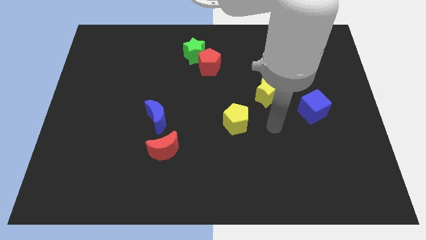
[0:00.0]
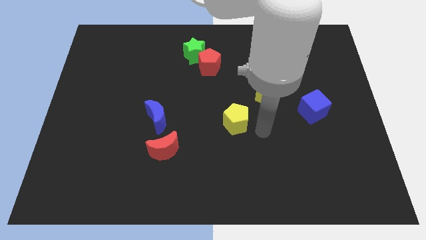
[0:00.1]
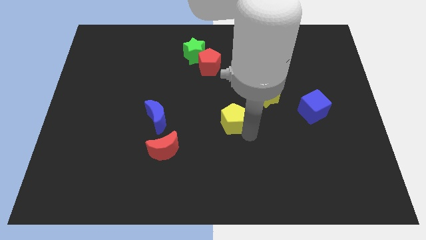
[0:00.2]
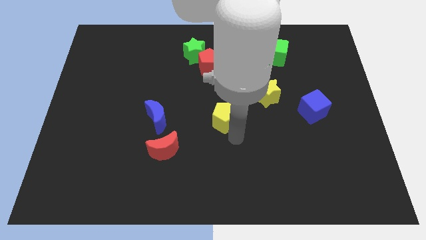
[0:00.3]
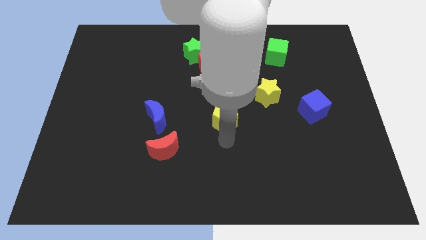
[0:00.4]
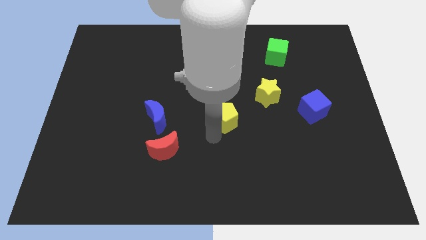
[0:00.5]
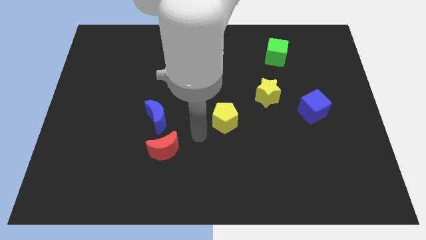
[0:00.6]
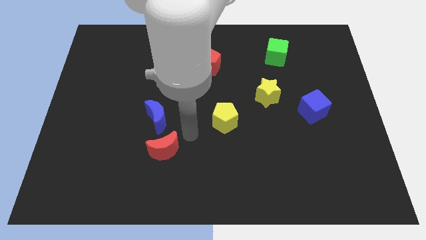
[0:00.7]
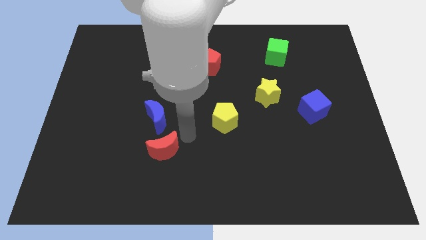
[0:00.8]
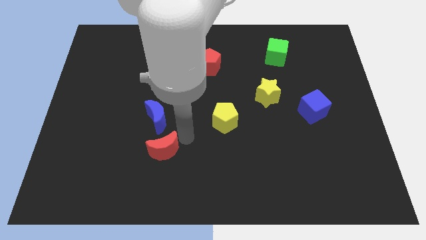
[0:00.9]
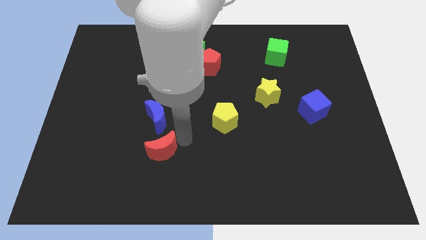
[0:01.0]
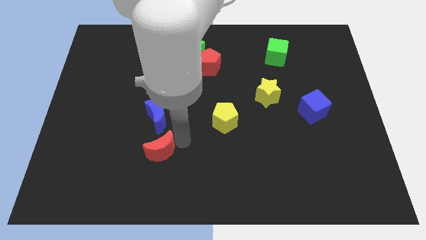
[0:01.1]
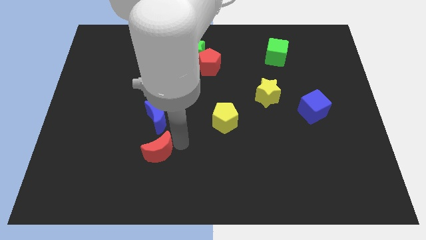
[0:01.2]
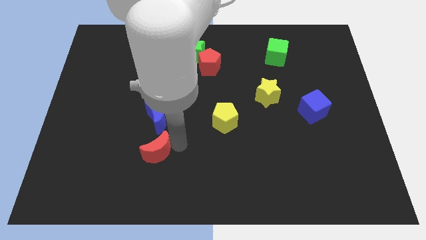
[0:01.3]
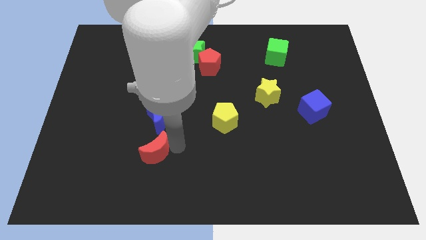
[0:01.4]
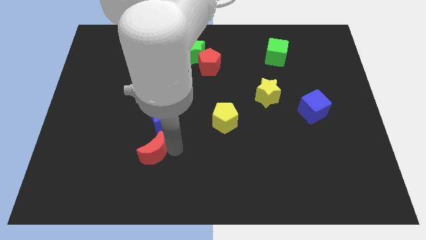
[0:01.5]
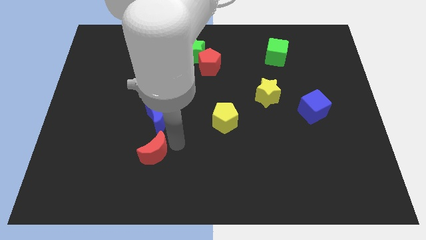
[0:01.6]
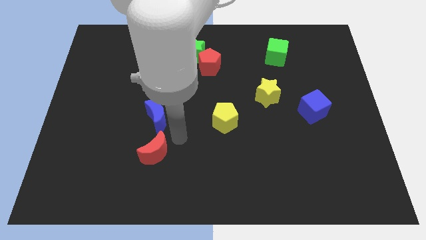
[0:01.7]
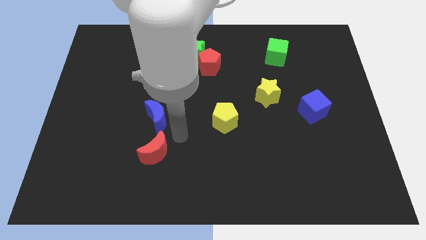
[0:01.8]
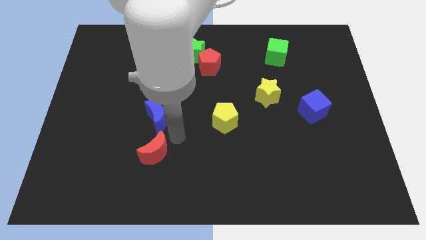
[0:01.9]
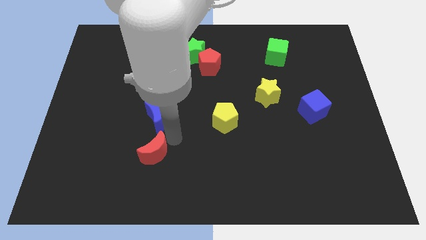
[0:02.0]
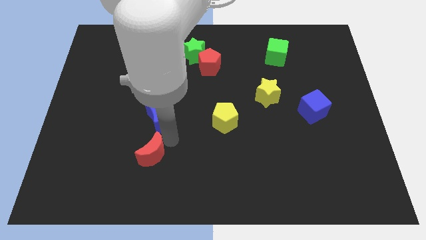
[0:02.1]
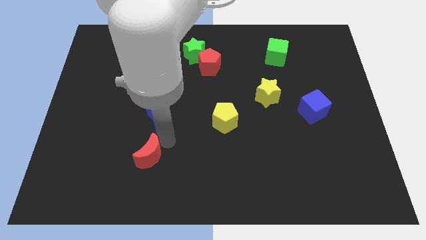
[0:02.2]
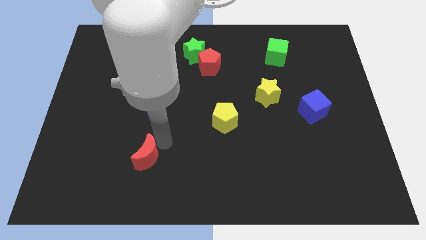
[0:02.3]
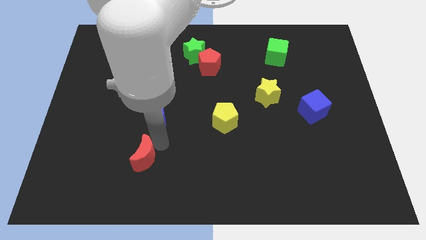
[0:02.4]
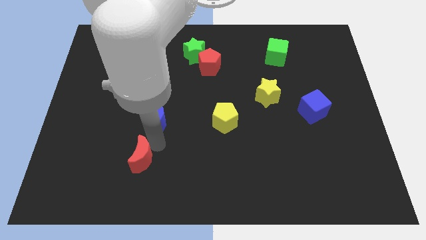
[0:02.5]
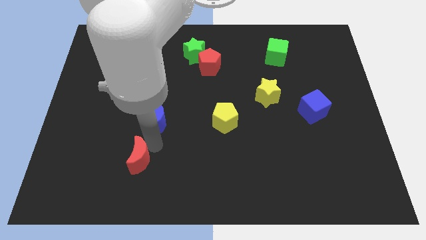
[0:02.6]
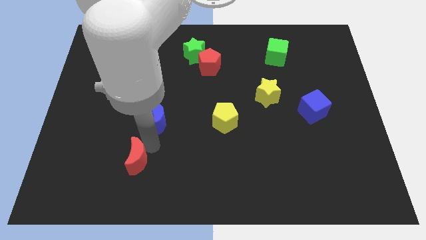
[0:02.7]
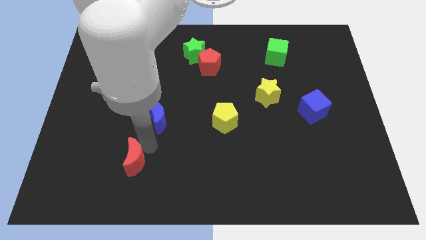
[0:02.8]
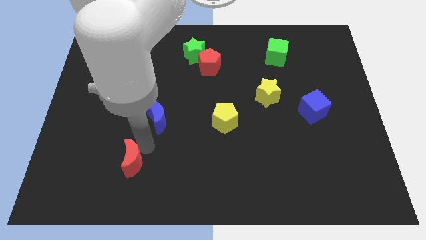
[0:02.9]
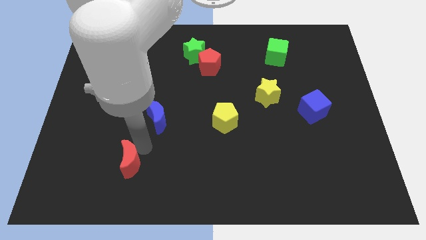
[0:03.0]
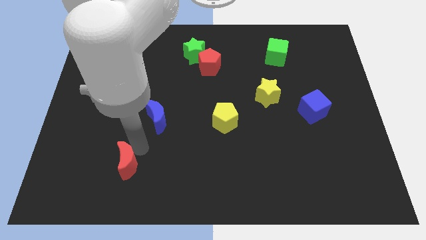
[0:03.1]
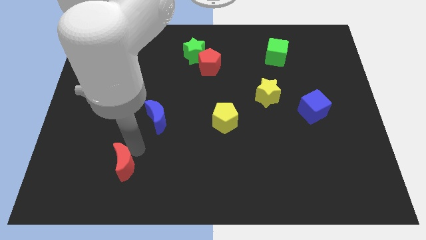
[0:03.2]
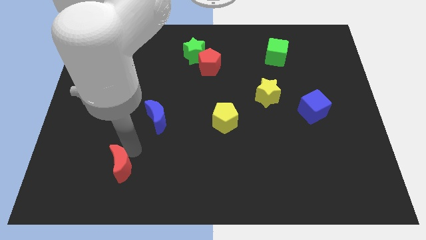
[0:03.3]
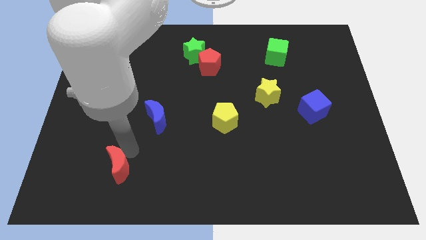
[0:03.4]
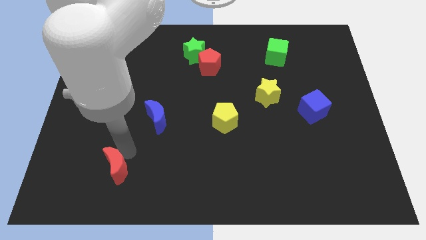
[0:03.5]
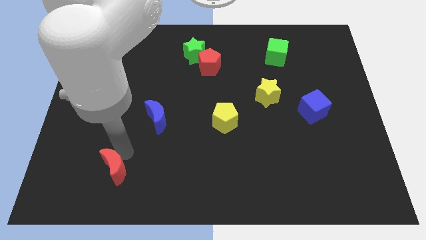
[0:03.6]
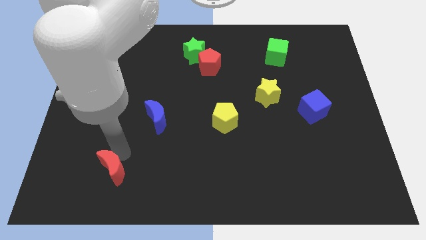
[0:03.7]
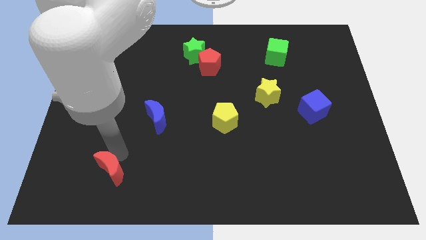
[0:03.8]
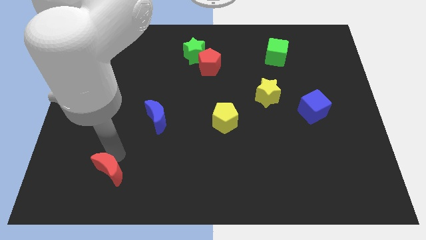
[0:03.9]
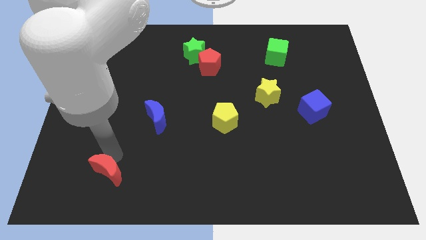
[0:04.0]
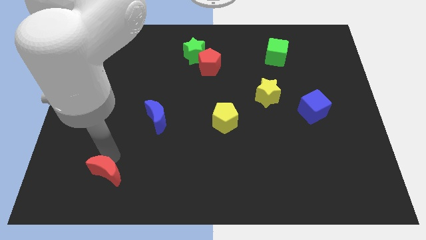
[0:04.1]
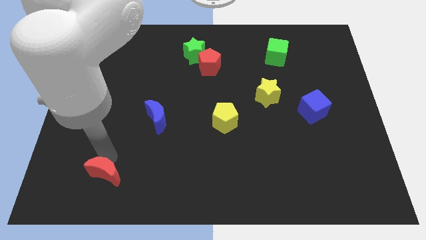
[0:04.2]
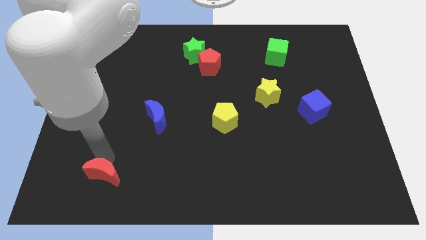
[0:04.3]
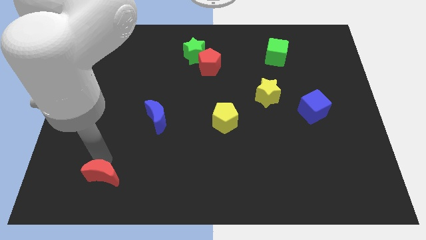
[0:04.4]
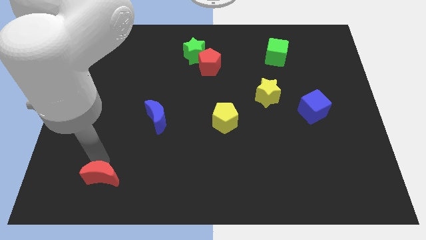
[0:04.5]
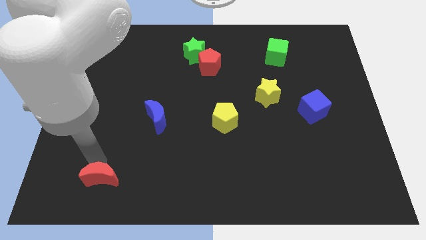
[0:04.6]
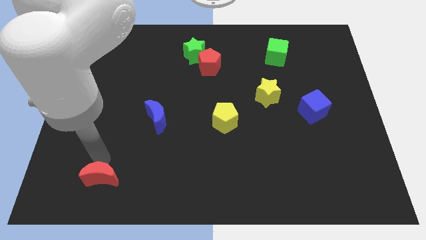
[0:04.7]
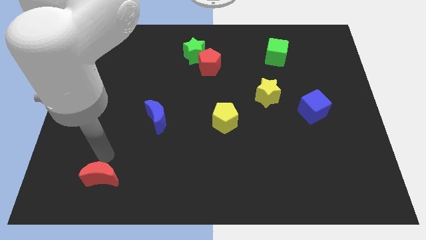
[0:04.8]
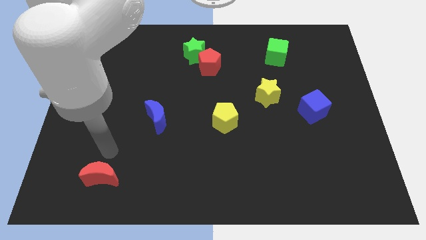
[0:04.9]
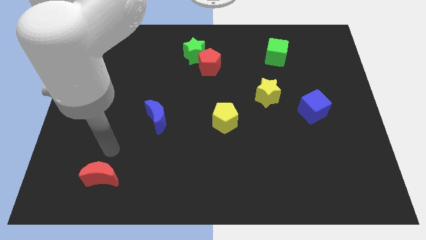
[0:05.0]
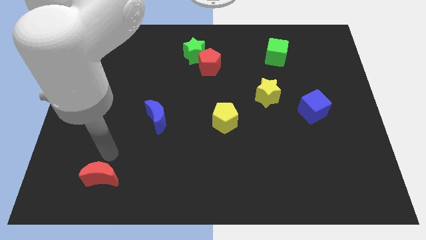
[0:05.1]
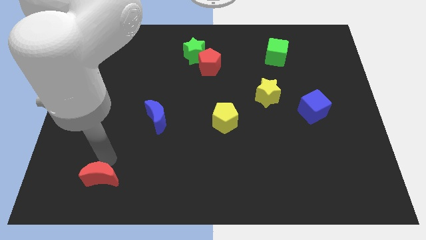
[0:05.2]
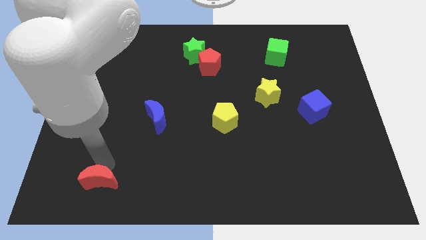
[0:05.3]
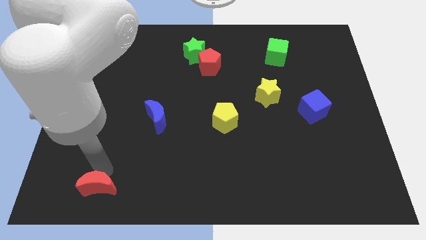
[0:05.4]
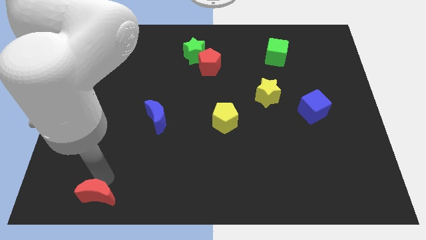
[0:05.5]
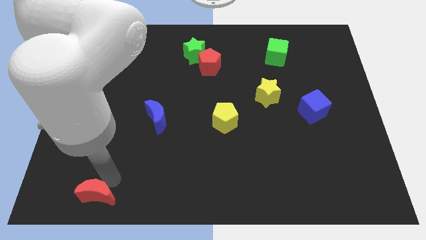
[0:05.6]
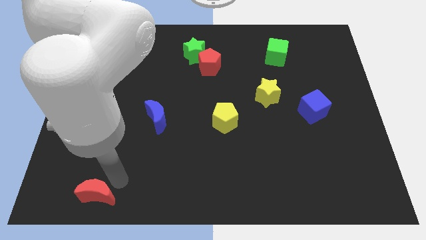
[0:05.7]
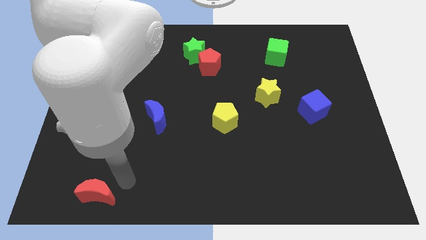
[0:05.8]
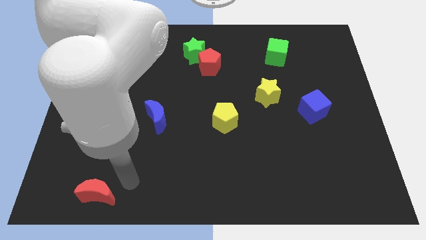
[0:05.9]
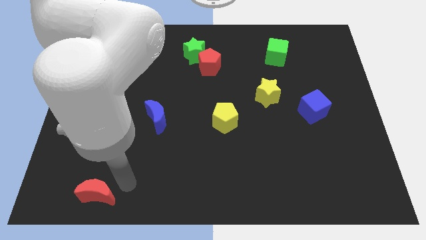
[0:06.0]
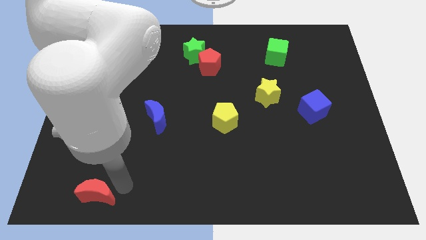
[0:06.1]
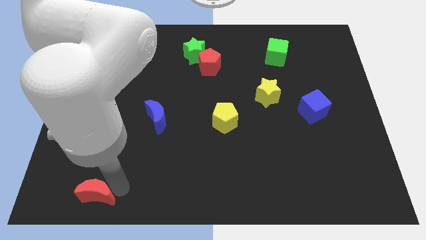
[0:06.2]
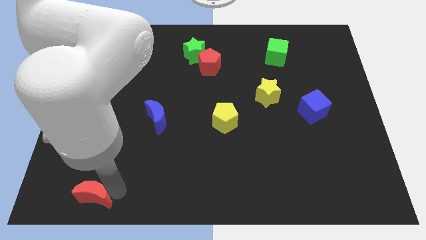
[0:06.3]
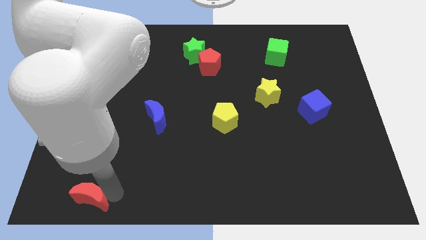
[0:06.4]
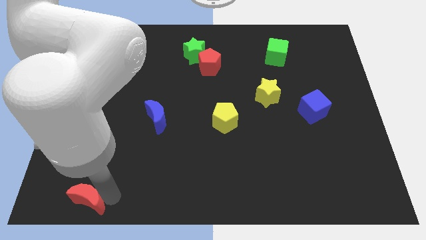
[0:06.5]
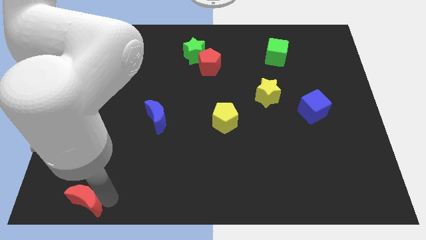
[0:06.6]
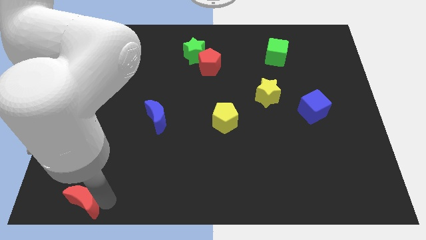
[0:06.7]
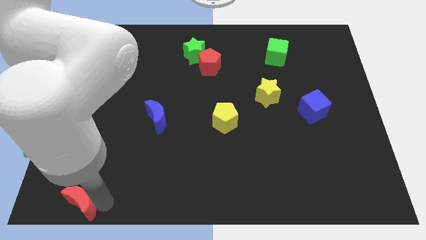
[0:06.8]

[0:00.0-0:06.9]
put the red moon to the bottom left corner
